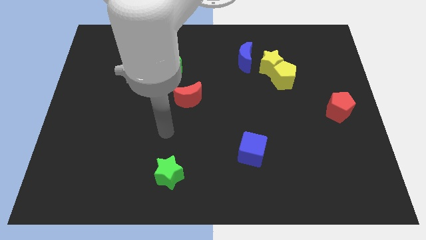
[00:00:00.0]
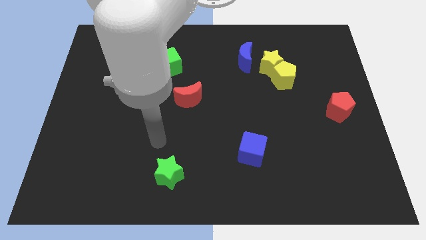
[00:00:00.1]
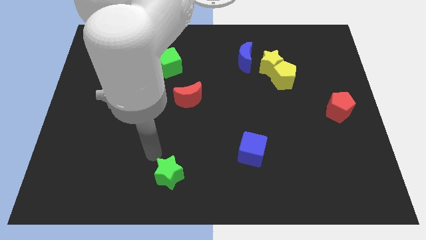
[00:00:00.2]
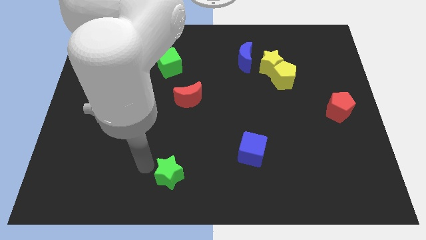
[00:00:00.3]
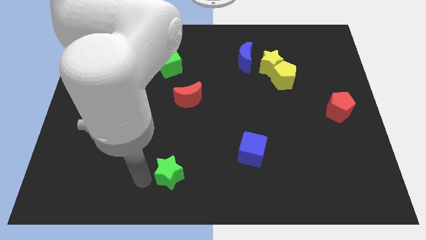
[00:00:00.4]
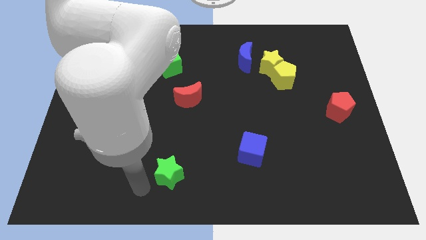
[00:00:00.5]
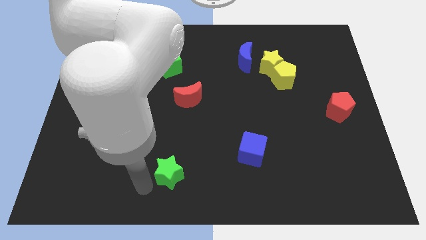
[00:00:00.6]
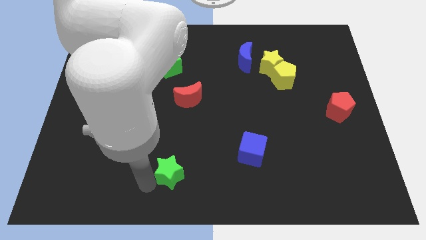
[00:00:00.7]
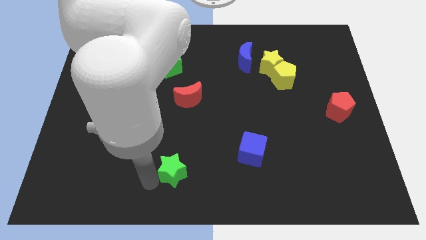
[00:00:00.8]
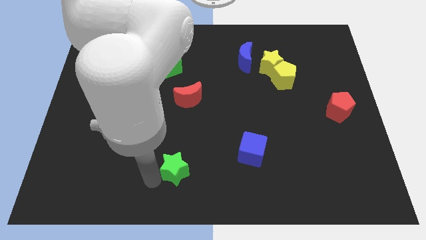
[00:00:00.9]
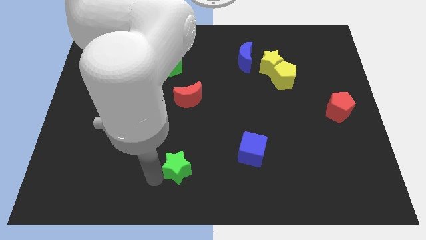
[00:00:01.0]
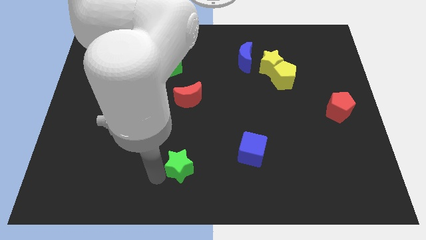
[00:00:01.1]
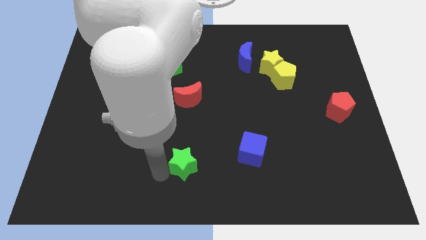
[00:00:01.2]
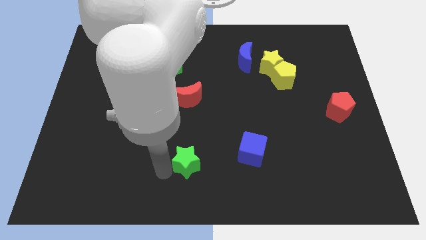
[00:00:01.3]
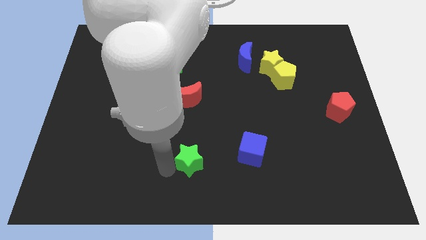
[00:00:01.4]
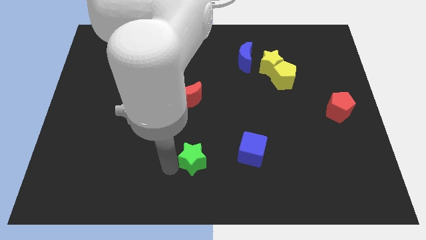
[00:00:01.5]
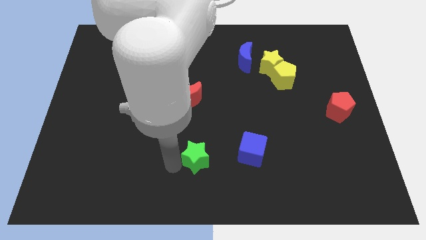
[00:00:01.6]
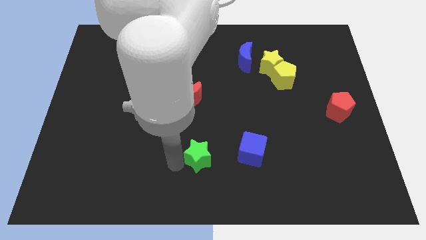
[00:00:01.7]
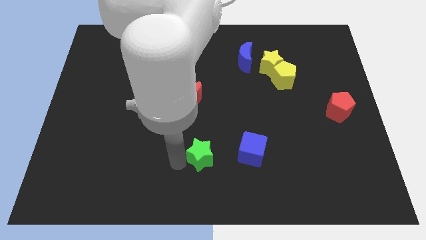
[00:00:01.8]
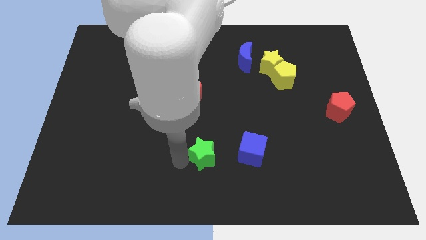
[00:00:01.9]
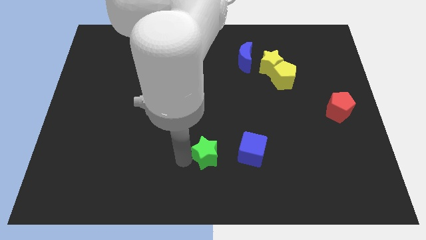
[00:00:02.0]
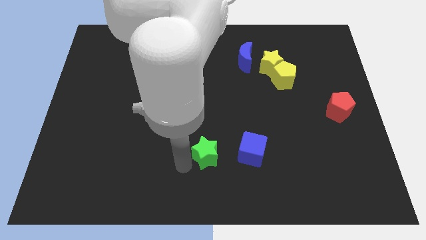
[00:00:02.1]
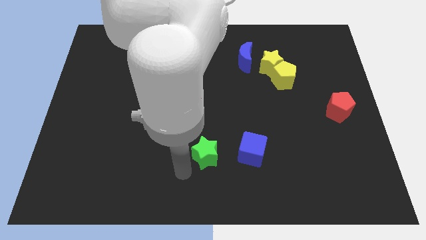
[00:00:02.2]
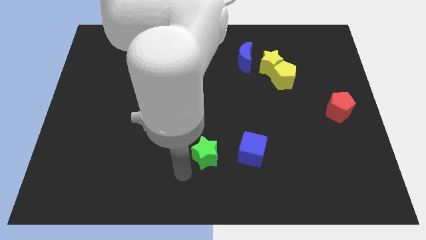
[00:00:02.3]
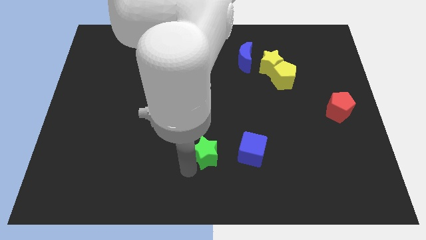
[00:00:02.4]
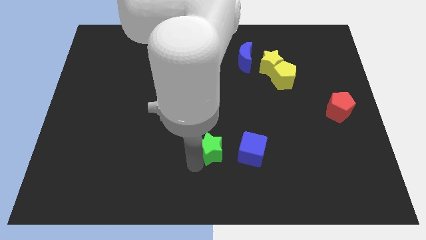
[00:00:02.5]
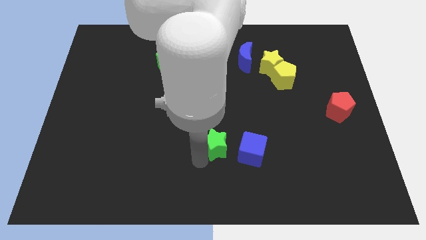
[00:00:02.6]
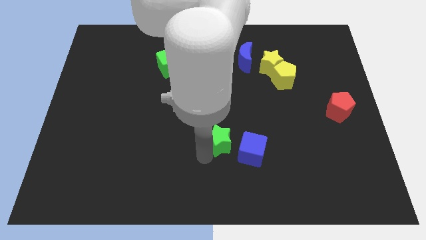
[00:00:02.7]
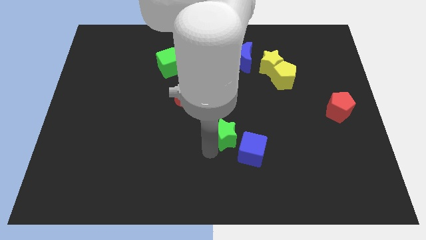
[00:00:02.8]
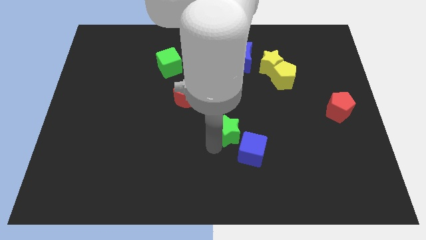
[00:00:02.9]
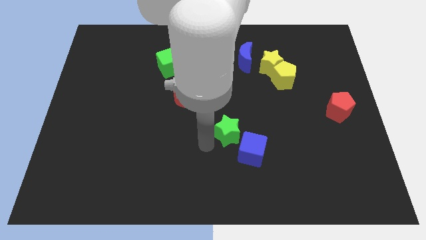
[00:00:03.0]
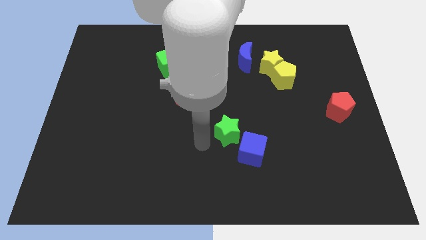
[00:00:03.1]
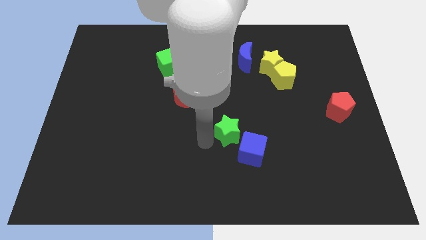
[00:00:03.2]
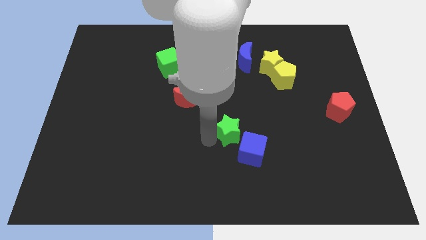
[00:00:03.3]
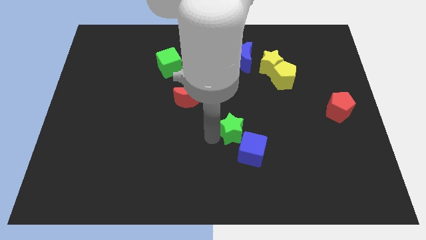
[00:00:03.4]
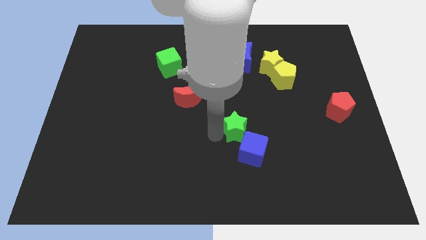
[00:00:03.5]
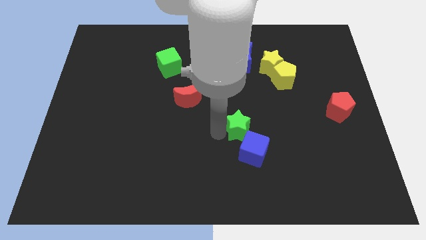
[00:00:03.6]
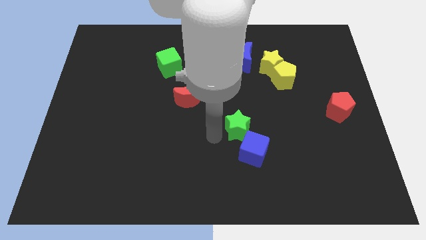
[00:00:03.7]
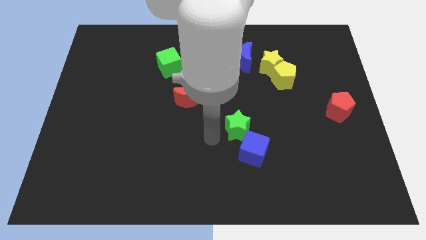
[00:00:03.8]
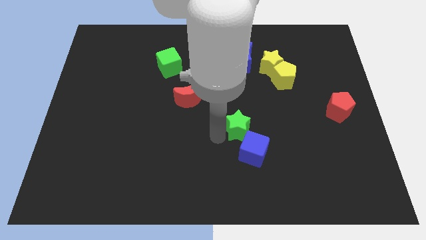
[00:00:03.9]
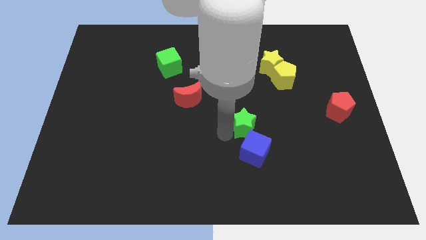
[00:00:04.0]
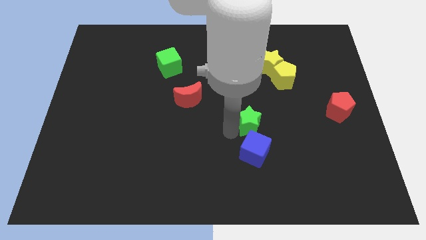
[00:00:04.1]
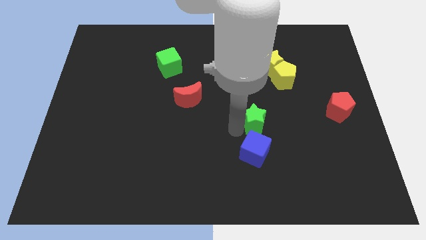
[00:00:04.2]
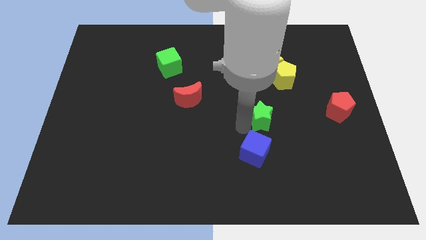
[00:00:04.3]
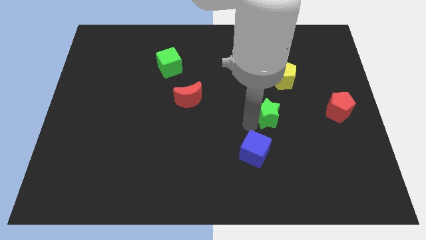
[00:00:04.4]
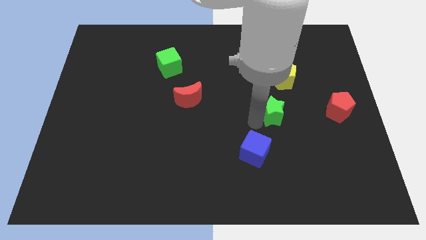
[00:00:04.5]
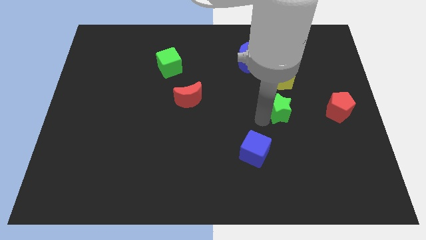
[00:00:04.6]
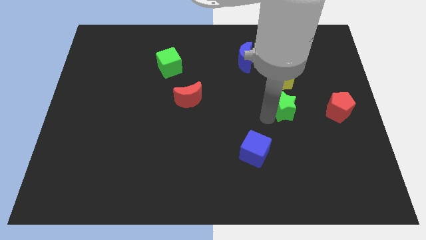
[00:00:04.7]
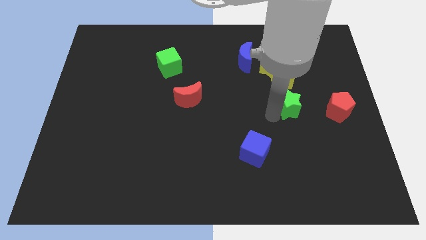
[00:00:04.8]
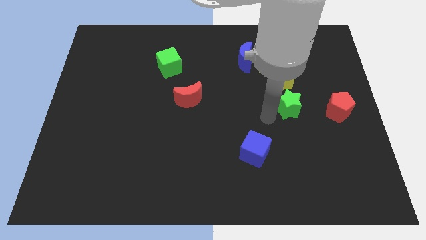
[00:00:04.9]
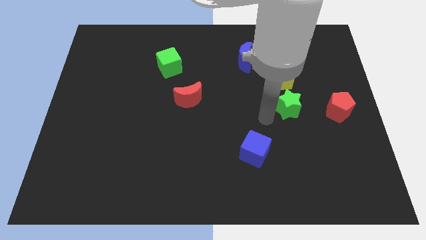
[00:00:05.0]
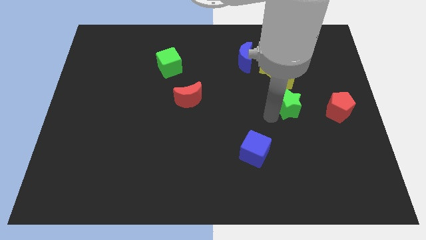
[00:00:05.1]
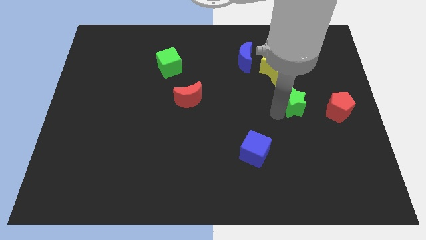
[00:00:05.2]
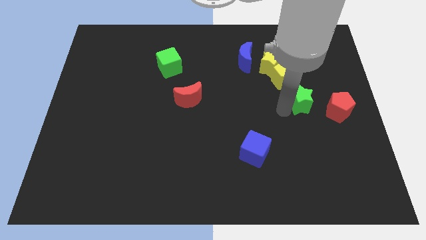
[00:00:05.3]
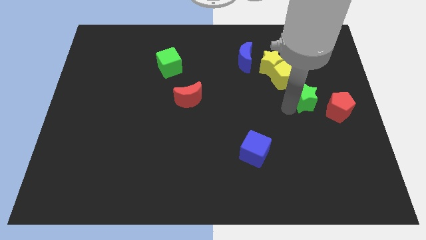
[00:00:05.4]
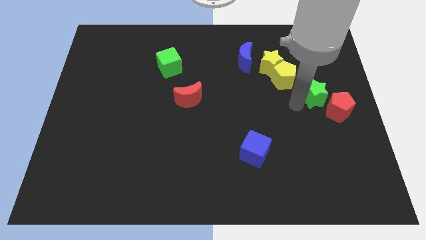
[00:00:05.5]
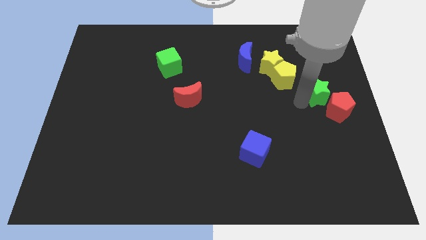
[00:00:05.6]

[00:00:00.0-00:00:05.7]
push the green star to the center right

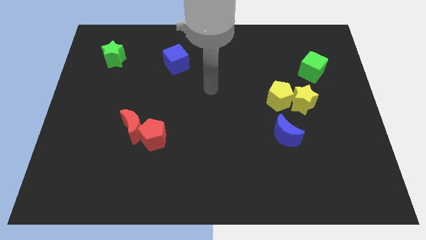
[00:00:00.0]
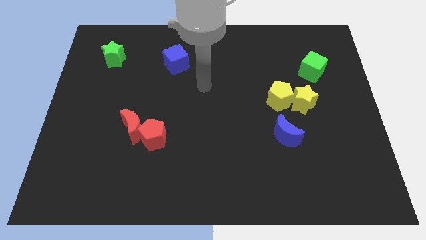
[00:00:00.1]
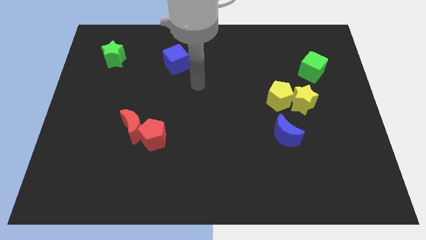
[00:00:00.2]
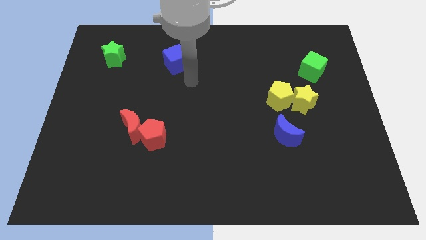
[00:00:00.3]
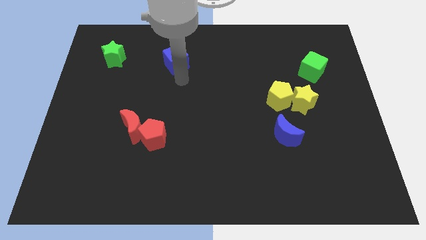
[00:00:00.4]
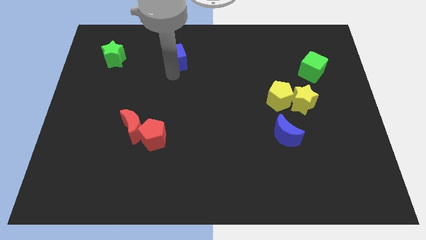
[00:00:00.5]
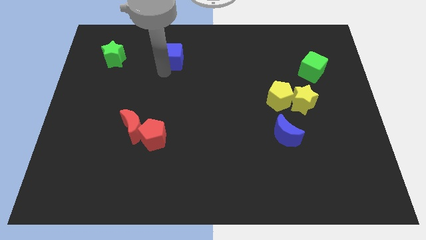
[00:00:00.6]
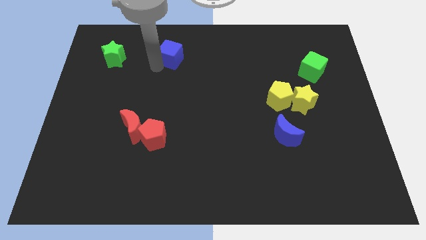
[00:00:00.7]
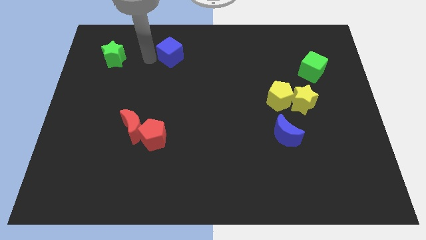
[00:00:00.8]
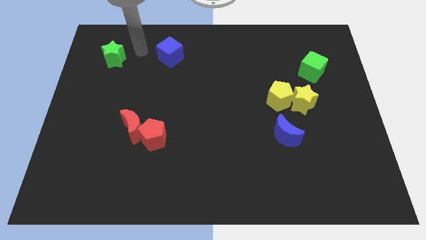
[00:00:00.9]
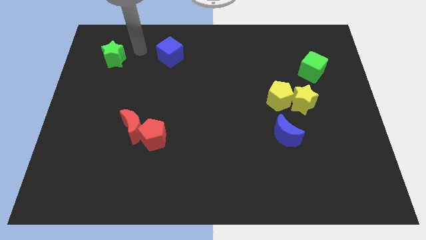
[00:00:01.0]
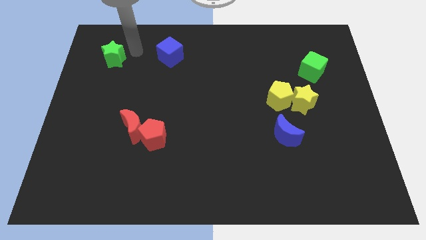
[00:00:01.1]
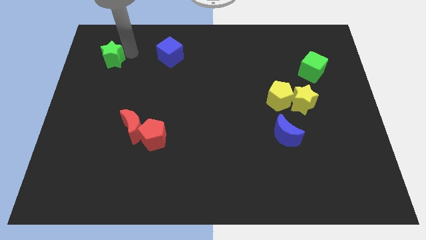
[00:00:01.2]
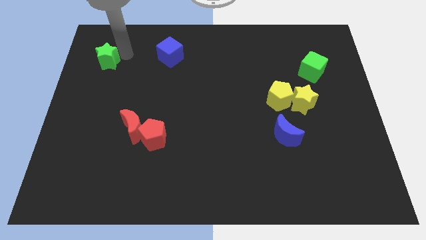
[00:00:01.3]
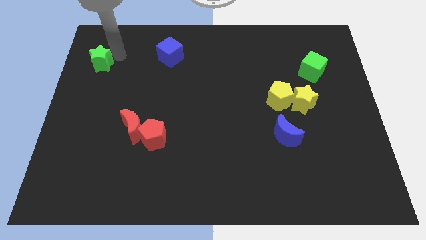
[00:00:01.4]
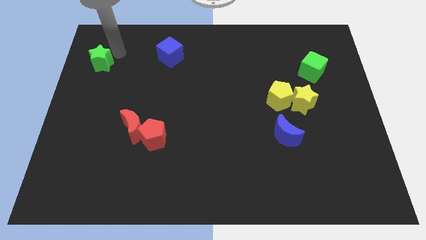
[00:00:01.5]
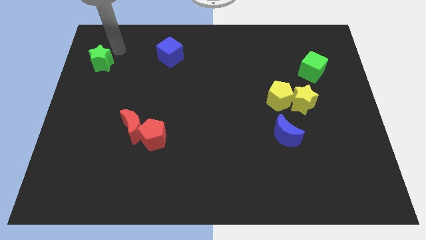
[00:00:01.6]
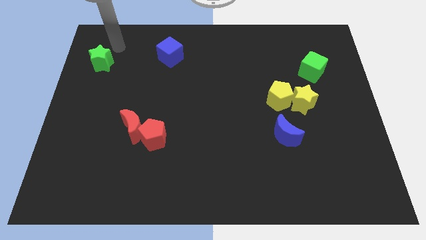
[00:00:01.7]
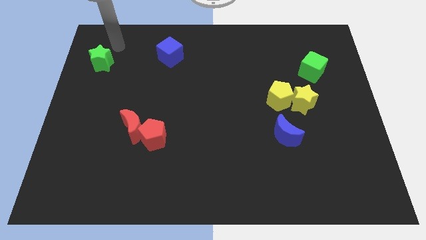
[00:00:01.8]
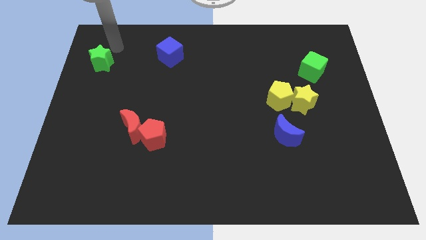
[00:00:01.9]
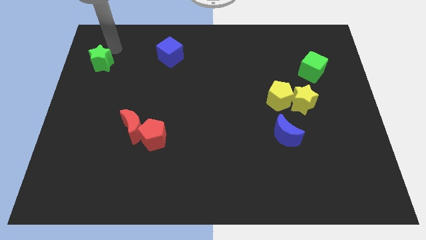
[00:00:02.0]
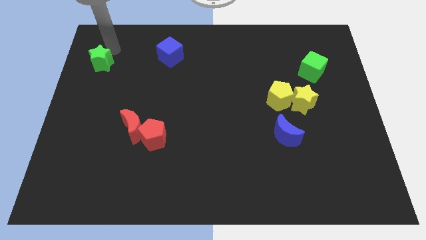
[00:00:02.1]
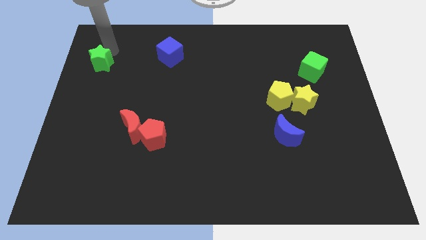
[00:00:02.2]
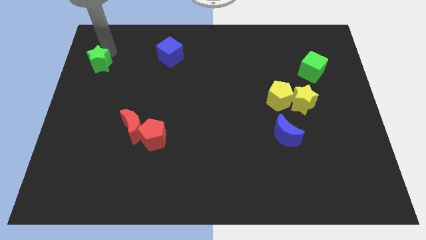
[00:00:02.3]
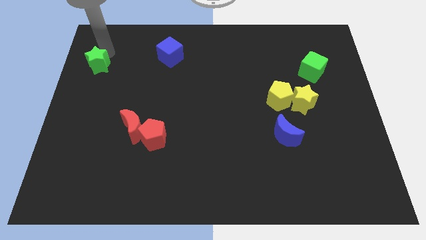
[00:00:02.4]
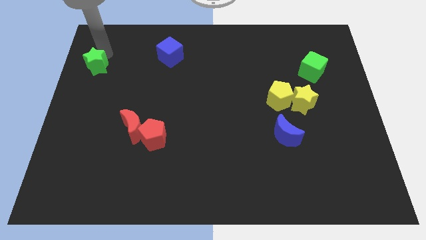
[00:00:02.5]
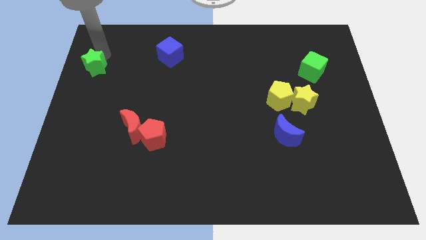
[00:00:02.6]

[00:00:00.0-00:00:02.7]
push the green star to the left side of the board
